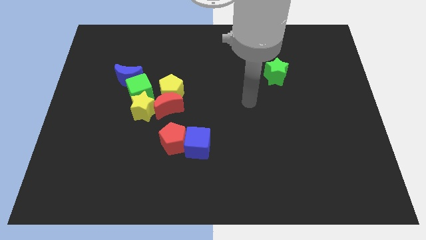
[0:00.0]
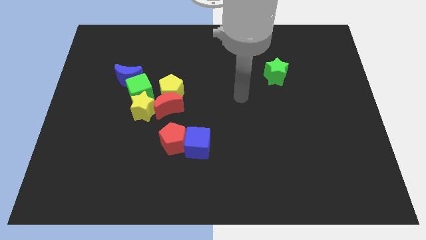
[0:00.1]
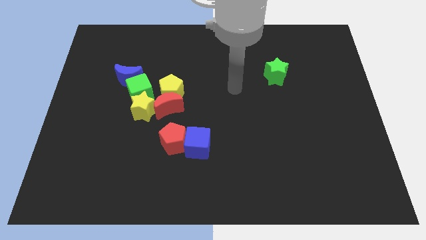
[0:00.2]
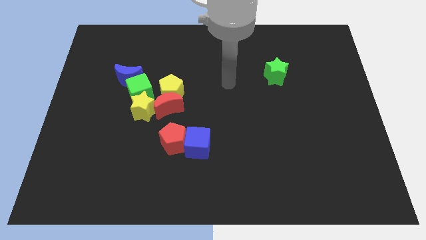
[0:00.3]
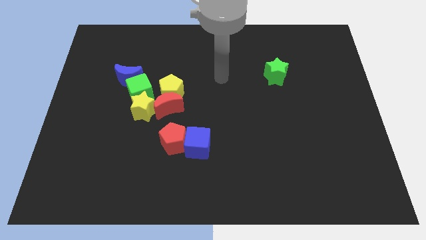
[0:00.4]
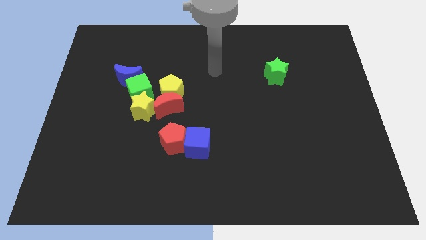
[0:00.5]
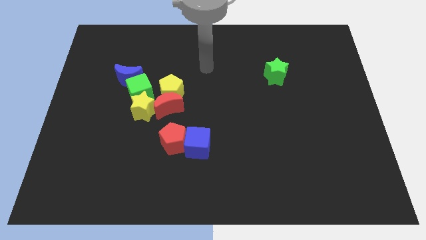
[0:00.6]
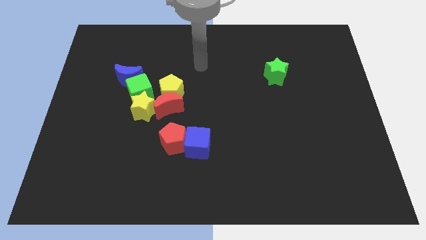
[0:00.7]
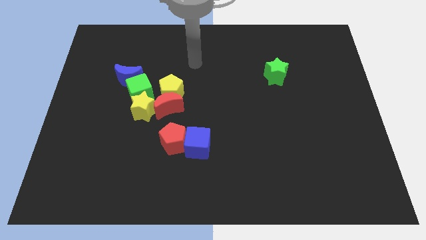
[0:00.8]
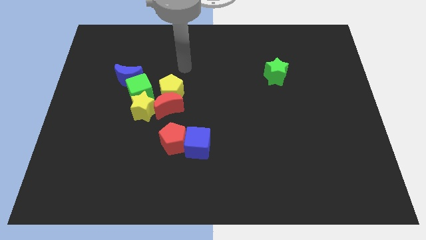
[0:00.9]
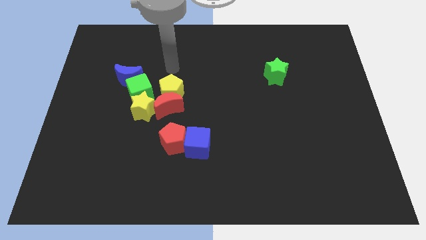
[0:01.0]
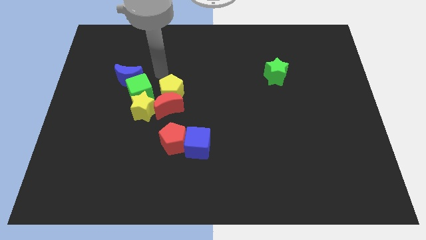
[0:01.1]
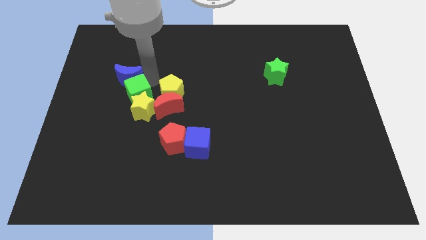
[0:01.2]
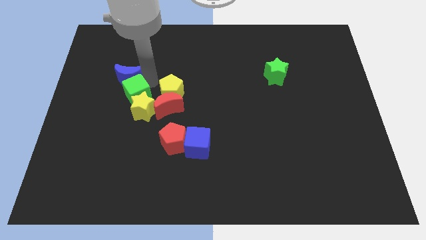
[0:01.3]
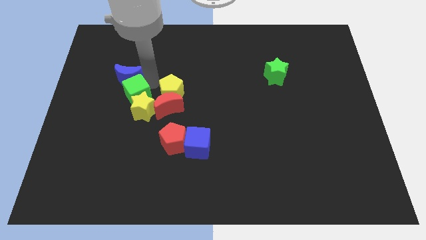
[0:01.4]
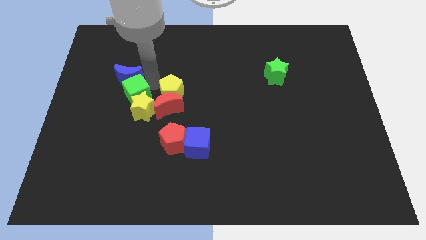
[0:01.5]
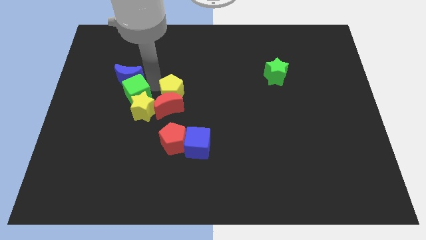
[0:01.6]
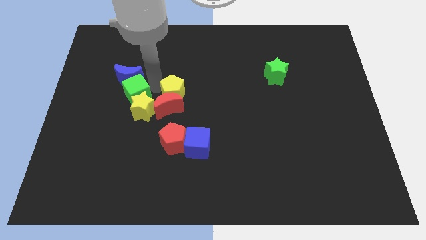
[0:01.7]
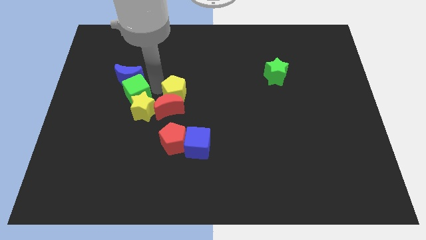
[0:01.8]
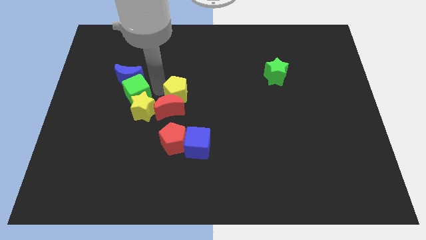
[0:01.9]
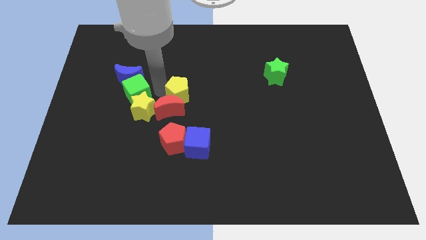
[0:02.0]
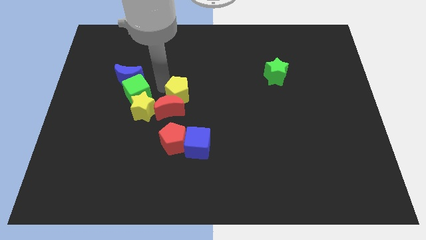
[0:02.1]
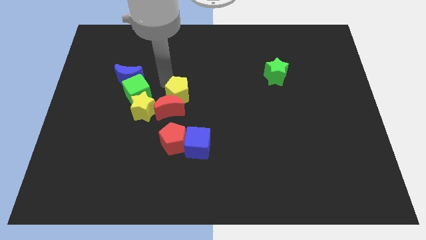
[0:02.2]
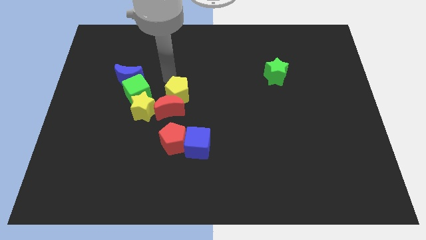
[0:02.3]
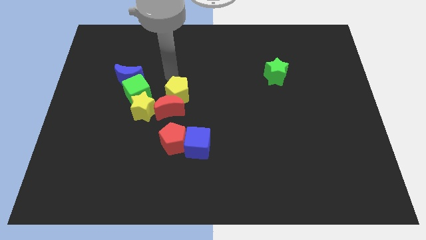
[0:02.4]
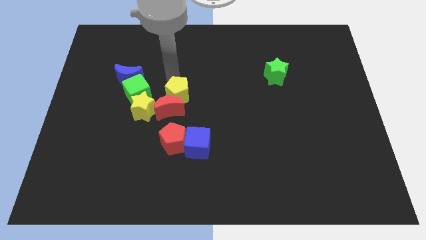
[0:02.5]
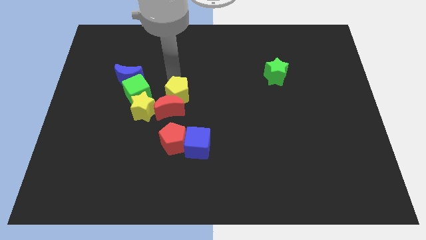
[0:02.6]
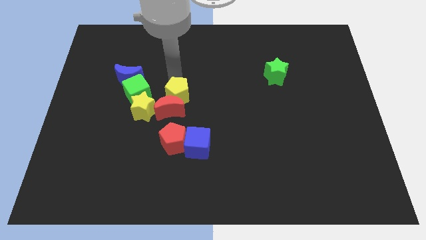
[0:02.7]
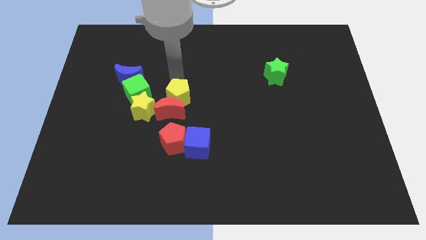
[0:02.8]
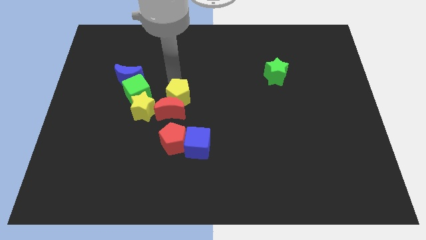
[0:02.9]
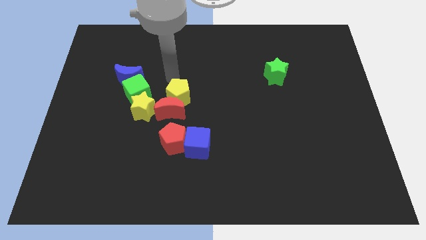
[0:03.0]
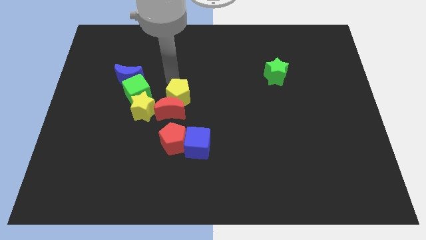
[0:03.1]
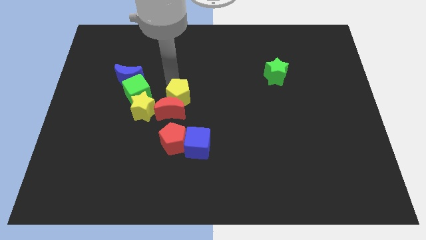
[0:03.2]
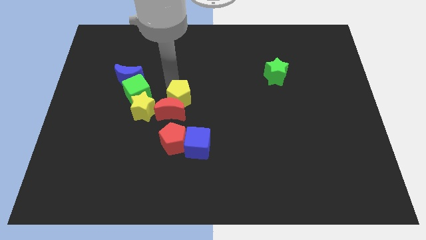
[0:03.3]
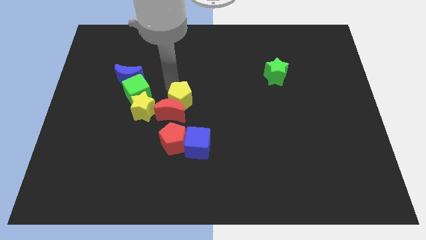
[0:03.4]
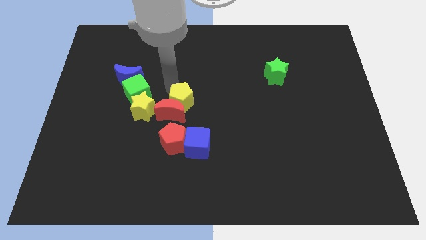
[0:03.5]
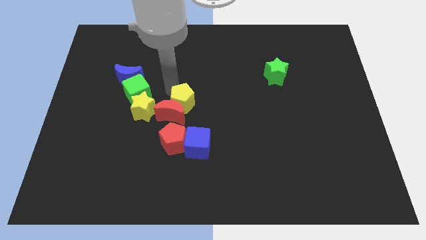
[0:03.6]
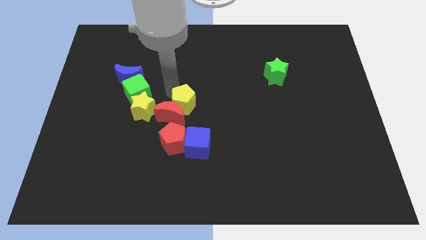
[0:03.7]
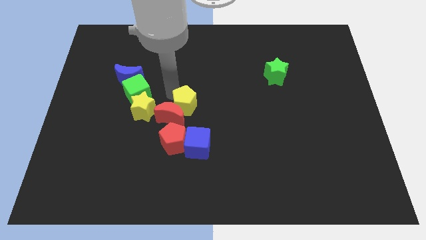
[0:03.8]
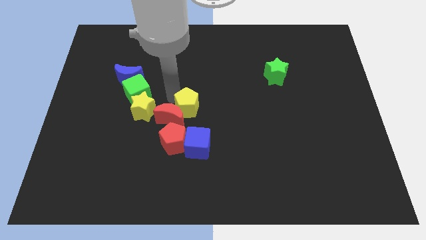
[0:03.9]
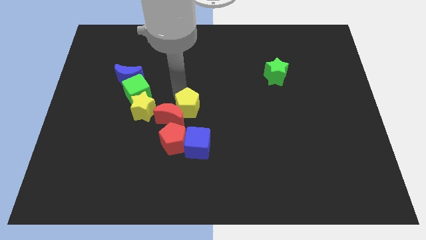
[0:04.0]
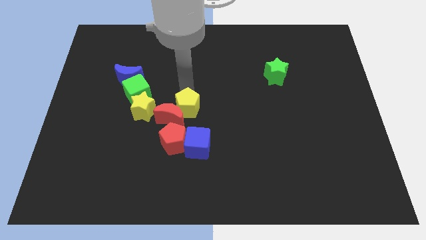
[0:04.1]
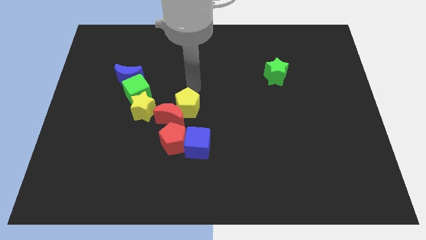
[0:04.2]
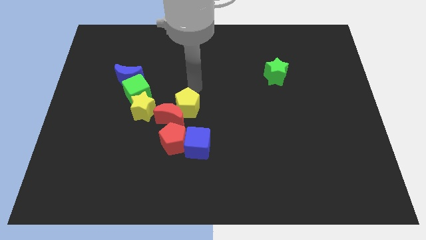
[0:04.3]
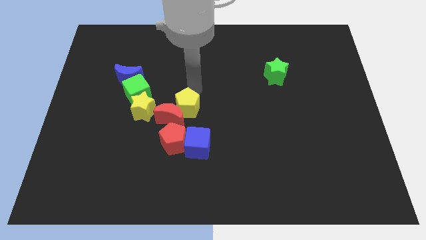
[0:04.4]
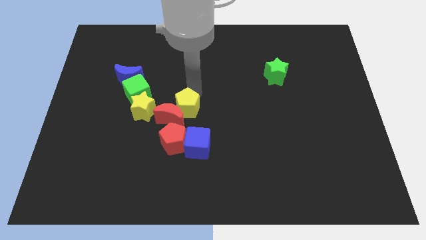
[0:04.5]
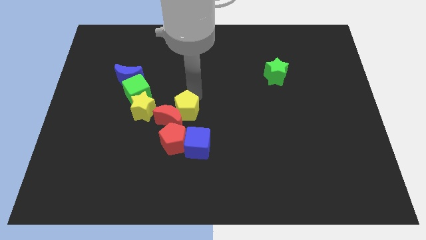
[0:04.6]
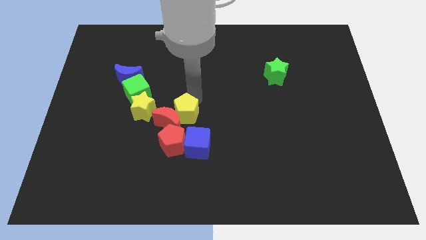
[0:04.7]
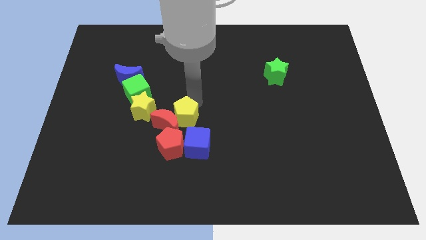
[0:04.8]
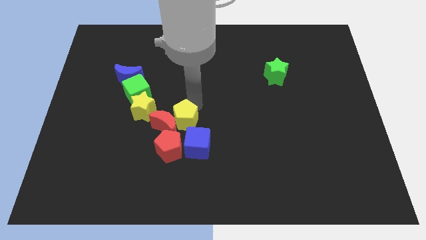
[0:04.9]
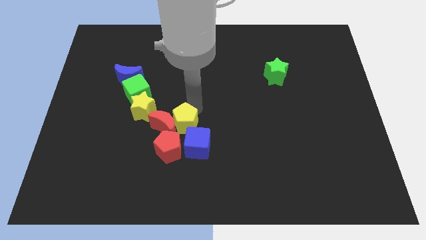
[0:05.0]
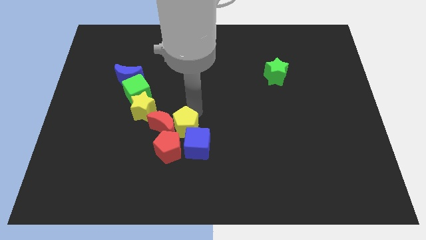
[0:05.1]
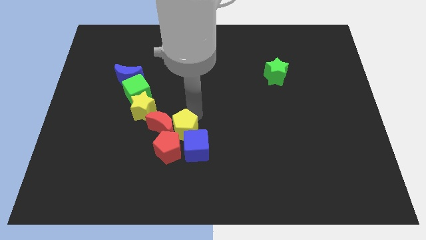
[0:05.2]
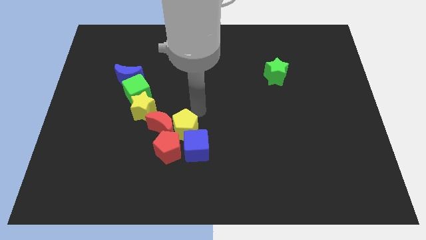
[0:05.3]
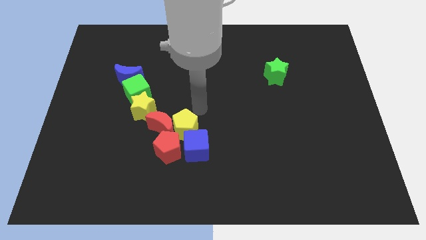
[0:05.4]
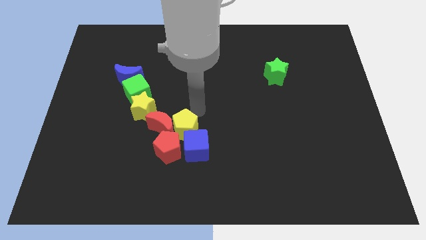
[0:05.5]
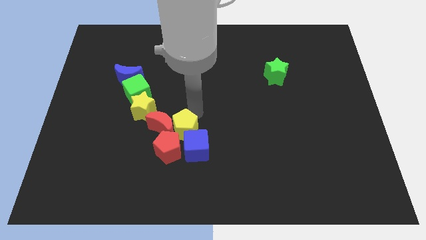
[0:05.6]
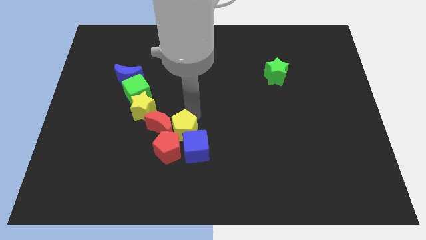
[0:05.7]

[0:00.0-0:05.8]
slide the yellow pentagon towards the red pentagon

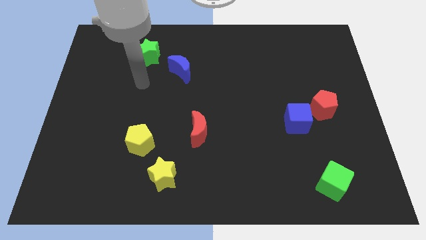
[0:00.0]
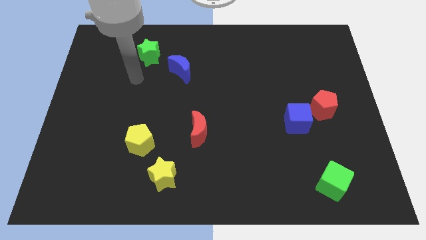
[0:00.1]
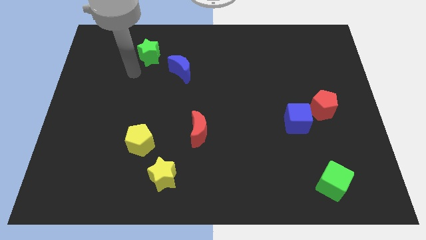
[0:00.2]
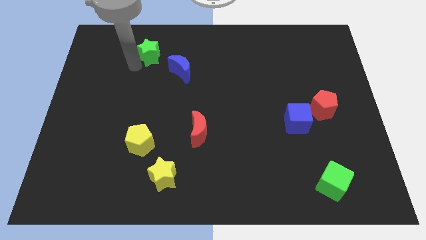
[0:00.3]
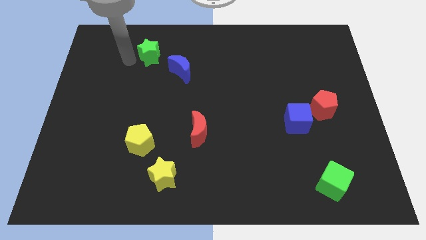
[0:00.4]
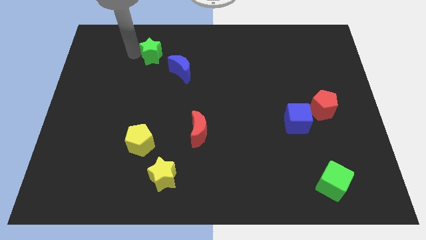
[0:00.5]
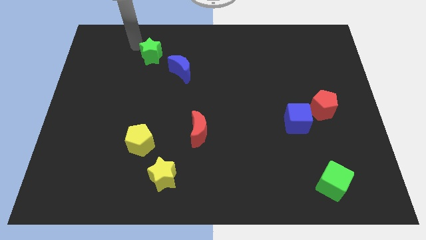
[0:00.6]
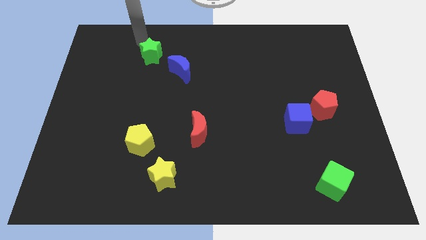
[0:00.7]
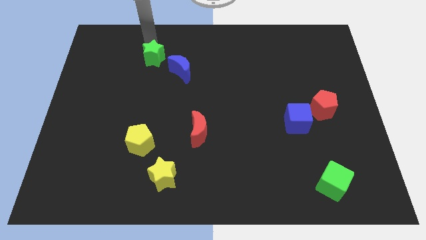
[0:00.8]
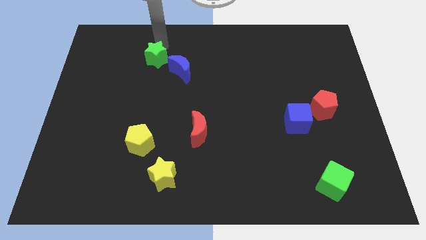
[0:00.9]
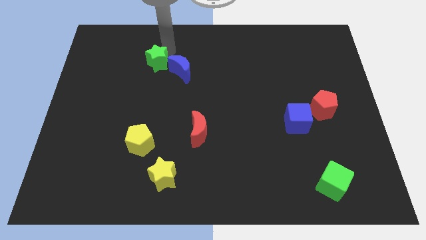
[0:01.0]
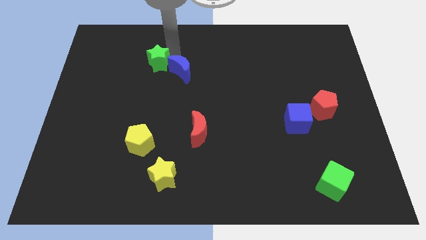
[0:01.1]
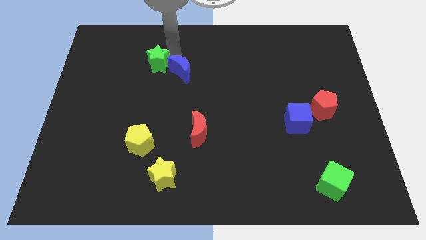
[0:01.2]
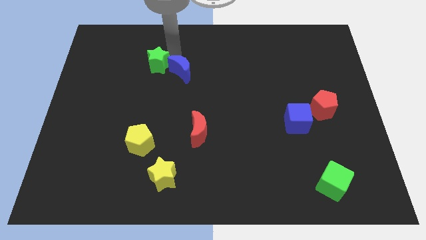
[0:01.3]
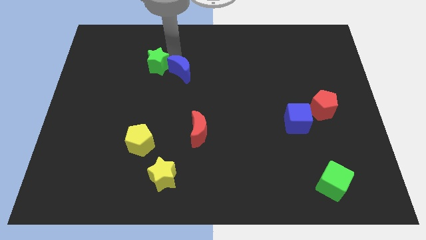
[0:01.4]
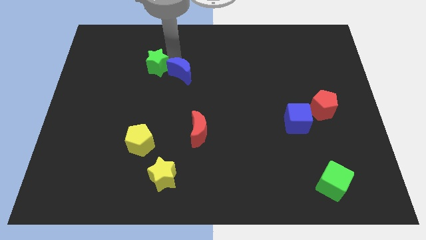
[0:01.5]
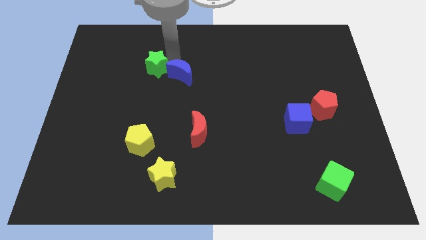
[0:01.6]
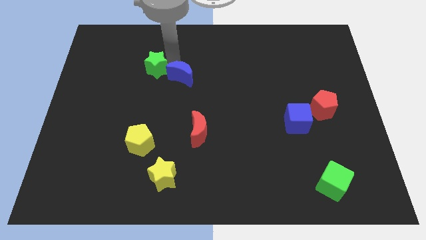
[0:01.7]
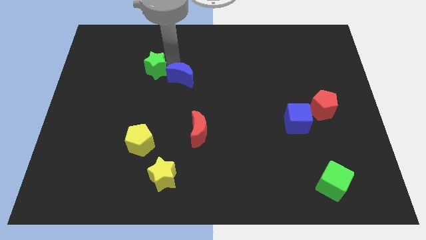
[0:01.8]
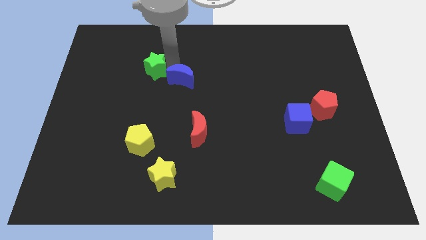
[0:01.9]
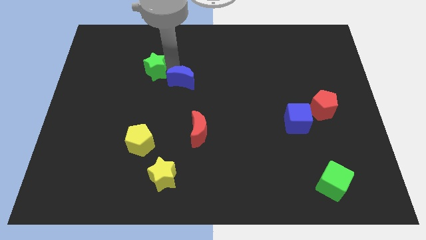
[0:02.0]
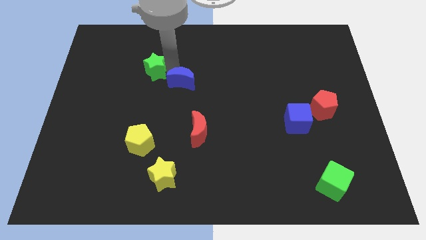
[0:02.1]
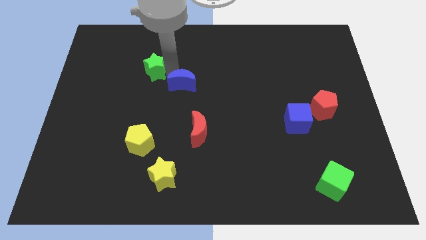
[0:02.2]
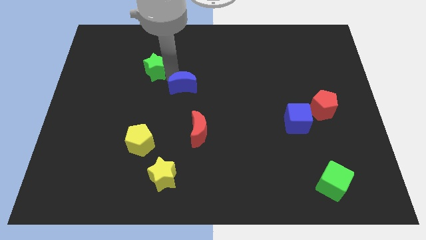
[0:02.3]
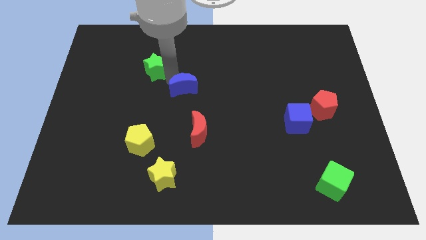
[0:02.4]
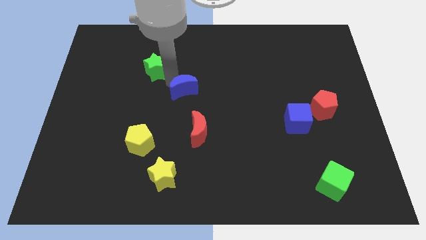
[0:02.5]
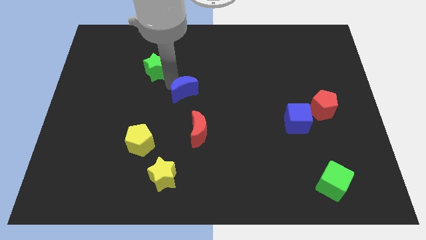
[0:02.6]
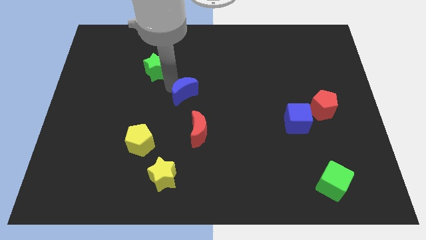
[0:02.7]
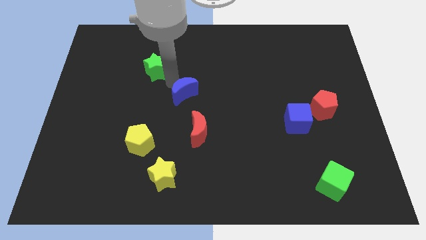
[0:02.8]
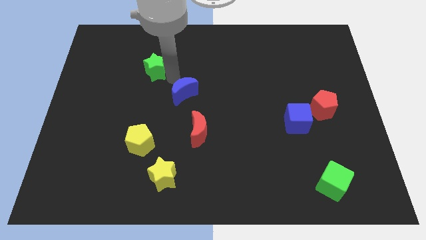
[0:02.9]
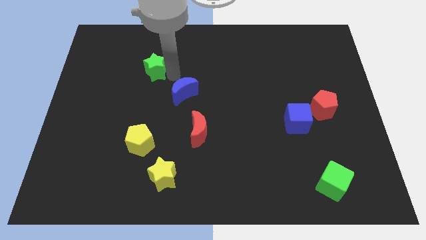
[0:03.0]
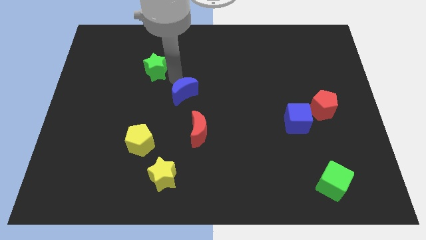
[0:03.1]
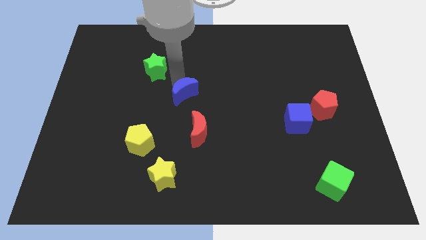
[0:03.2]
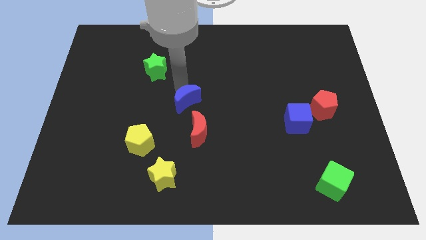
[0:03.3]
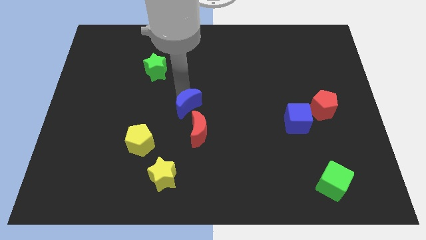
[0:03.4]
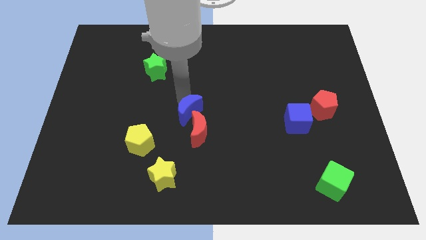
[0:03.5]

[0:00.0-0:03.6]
slide the blue moon close to the red moon
